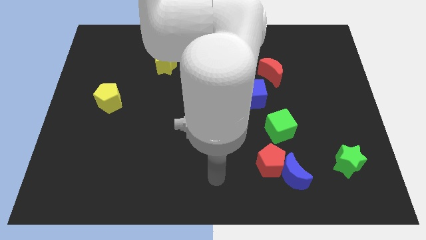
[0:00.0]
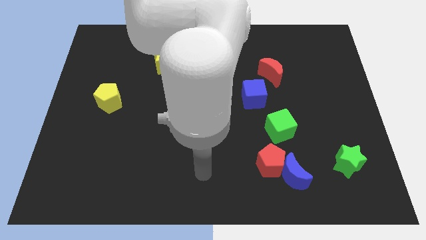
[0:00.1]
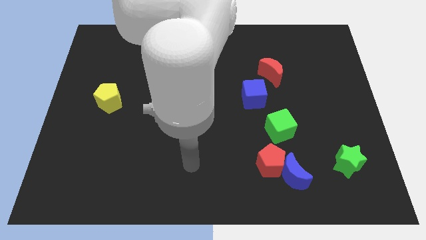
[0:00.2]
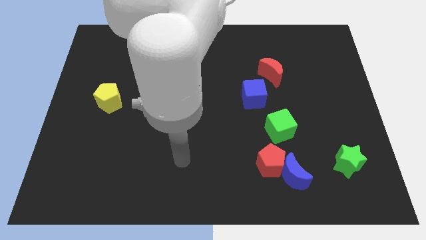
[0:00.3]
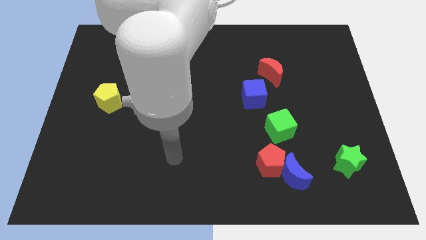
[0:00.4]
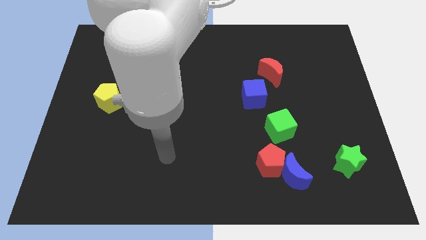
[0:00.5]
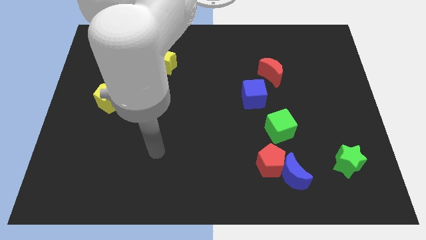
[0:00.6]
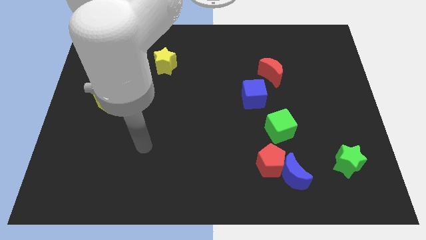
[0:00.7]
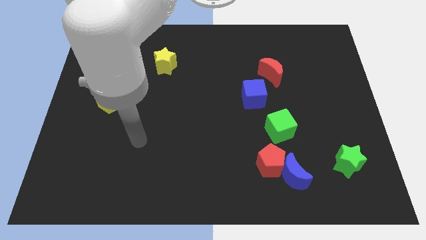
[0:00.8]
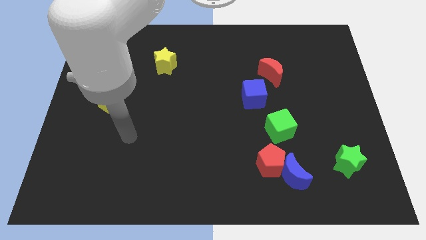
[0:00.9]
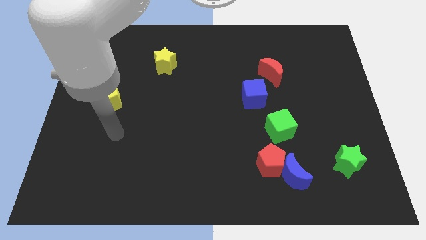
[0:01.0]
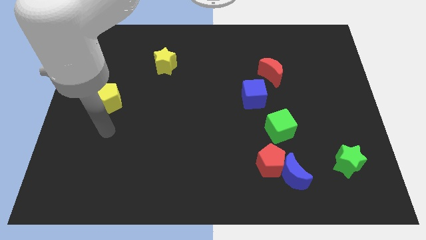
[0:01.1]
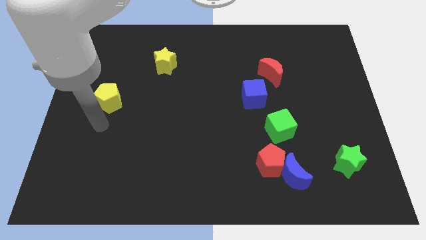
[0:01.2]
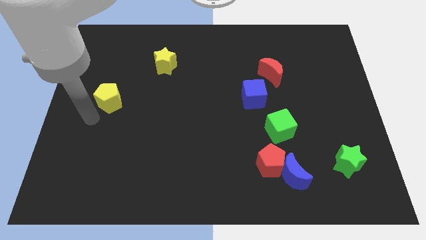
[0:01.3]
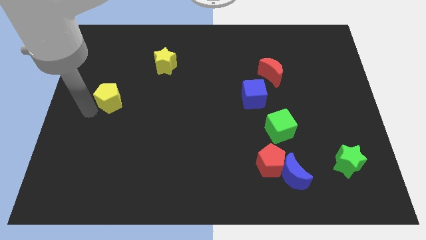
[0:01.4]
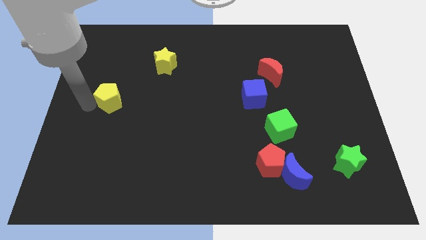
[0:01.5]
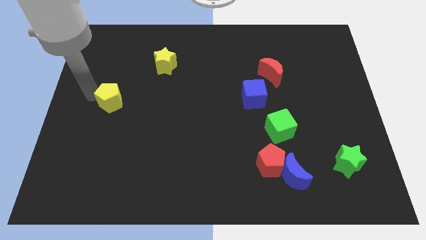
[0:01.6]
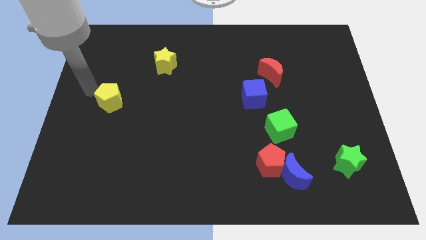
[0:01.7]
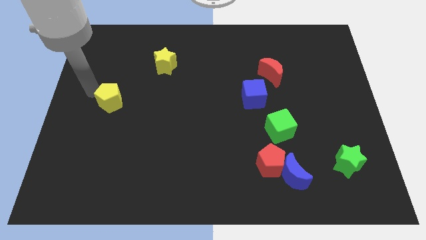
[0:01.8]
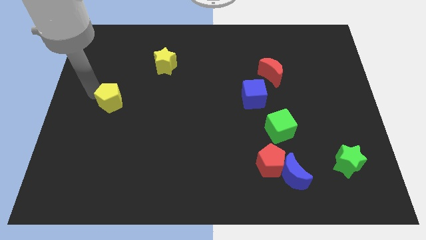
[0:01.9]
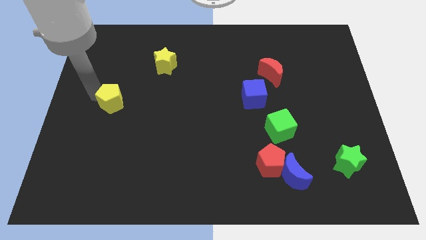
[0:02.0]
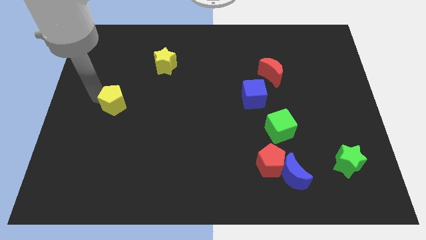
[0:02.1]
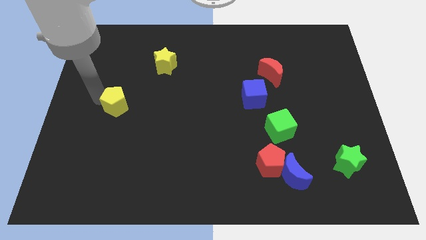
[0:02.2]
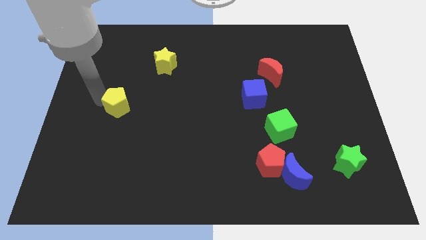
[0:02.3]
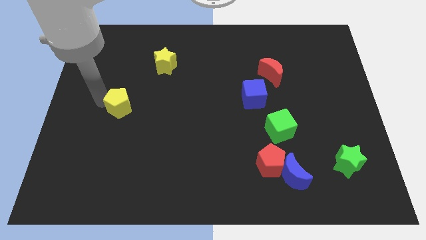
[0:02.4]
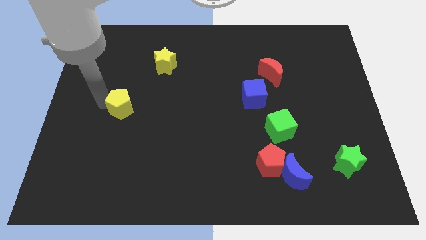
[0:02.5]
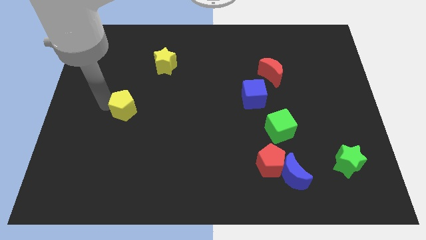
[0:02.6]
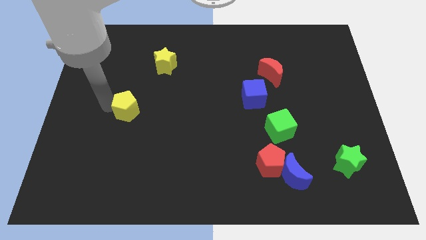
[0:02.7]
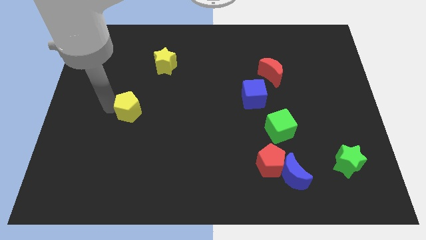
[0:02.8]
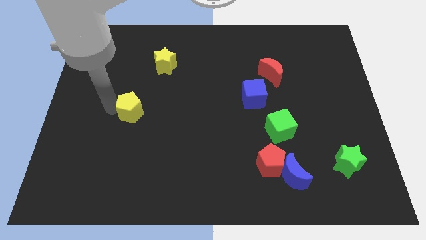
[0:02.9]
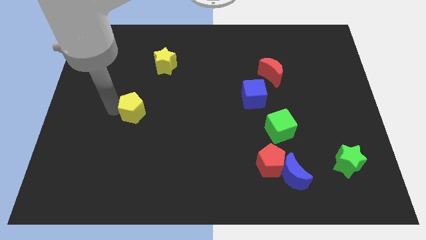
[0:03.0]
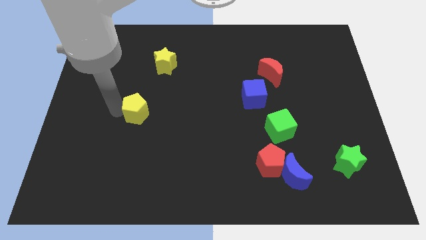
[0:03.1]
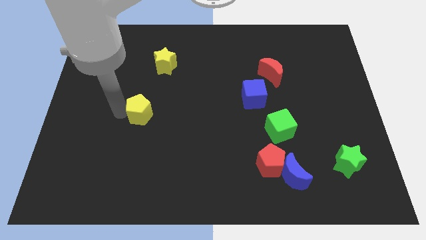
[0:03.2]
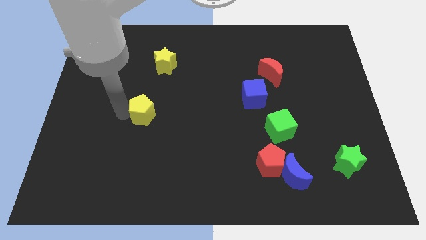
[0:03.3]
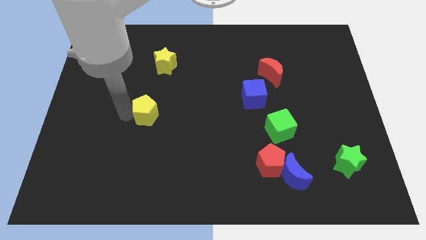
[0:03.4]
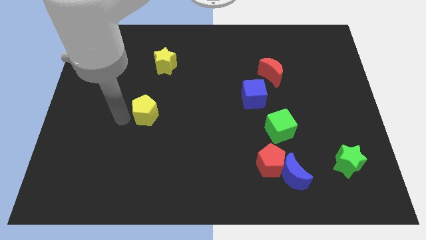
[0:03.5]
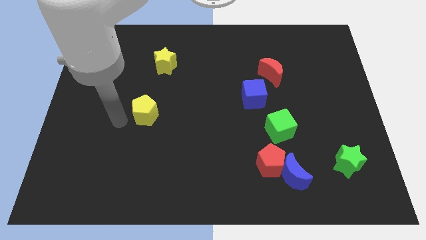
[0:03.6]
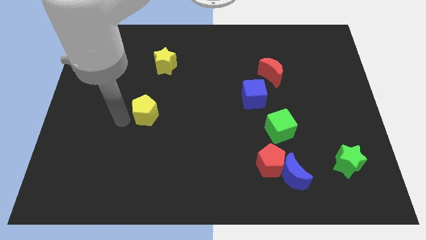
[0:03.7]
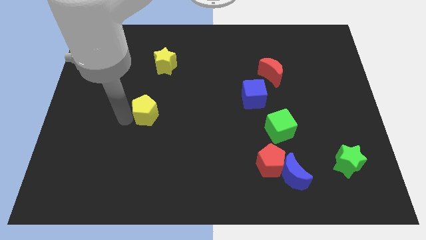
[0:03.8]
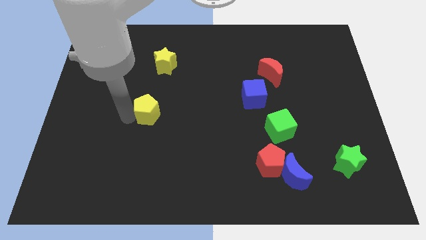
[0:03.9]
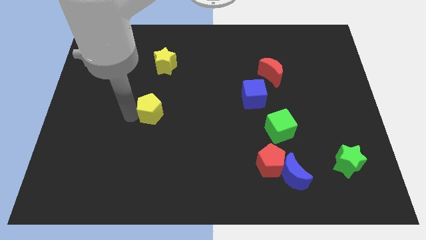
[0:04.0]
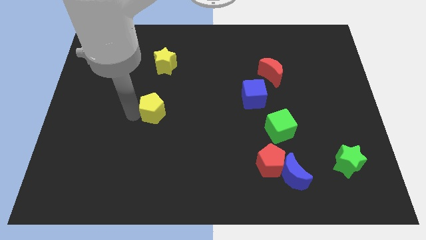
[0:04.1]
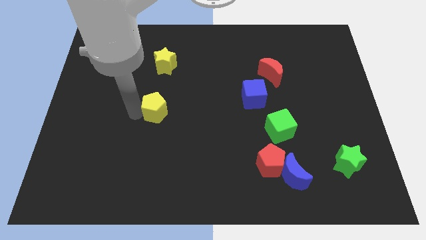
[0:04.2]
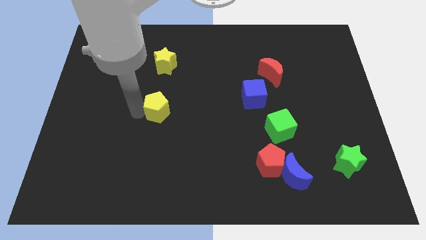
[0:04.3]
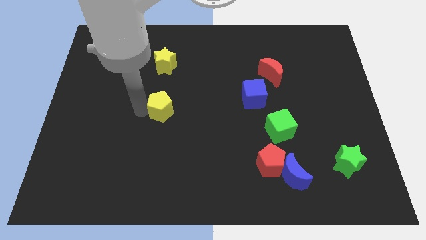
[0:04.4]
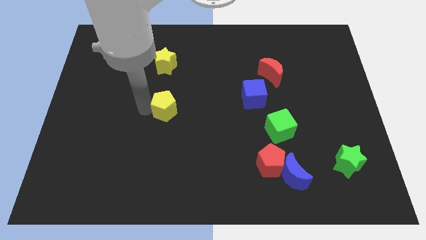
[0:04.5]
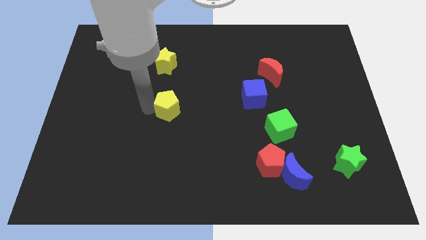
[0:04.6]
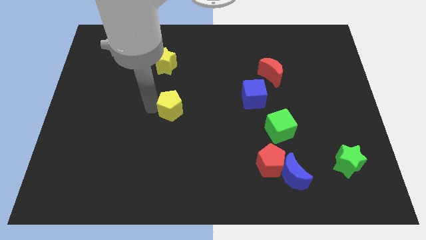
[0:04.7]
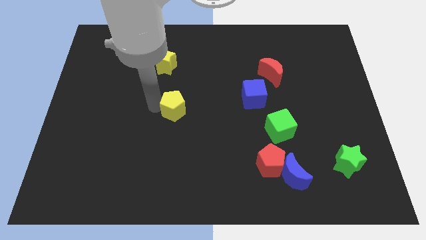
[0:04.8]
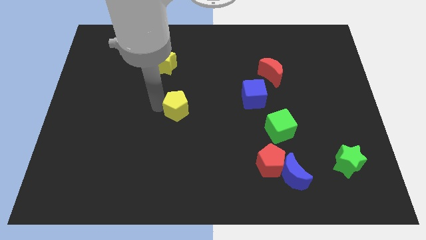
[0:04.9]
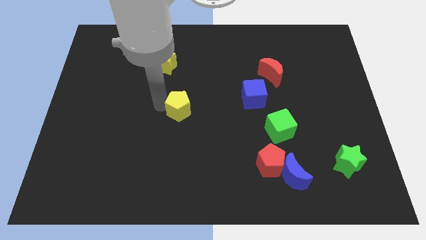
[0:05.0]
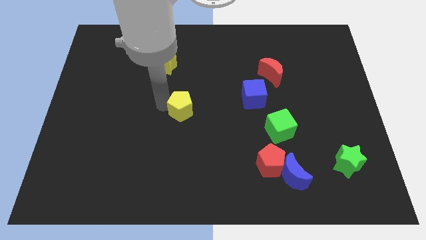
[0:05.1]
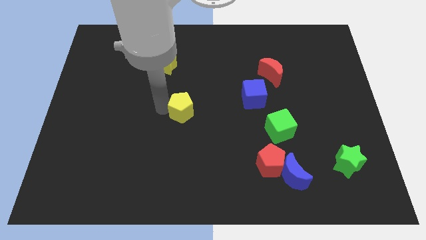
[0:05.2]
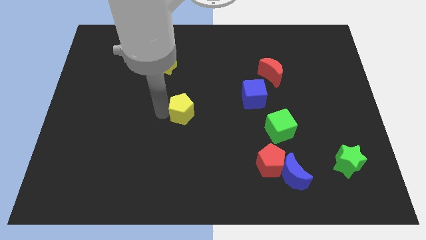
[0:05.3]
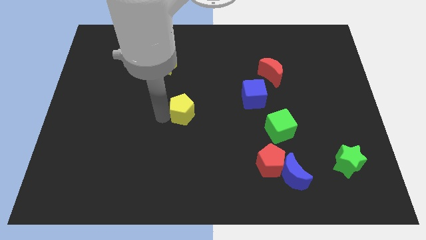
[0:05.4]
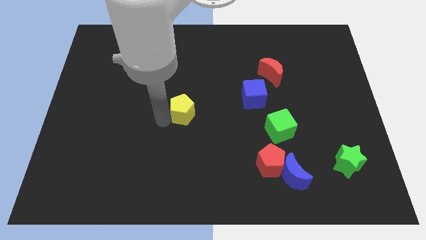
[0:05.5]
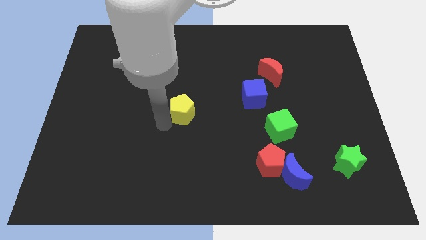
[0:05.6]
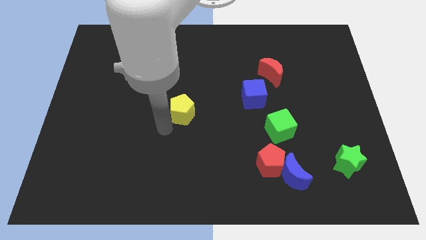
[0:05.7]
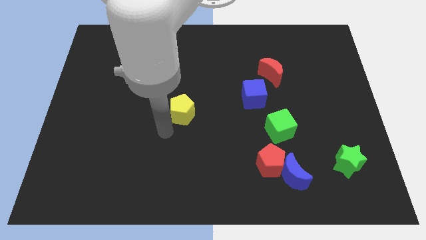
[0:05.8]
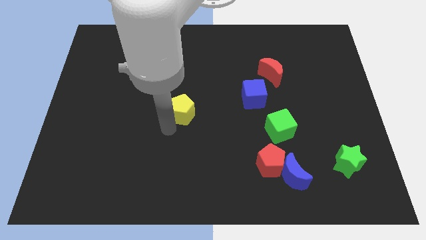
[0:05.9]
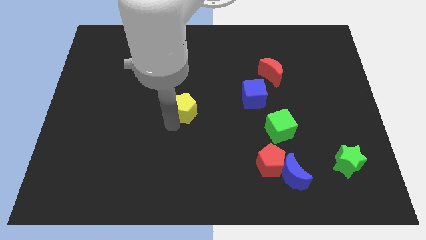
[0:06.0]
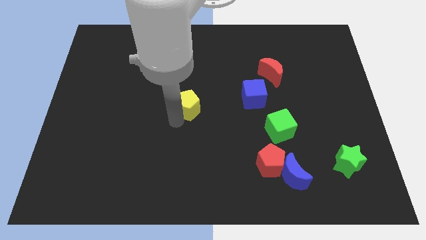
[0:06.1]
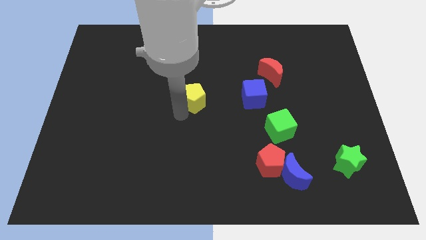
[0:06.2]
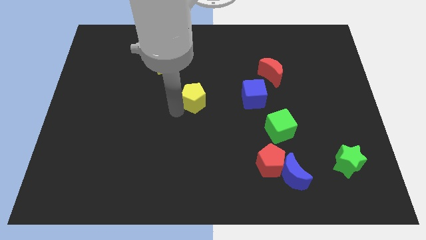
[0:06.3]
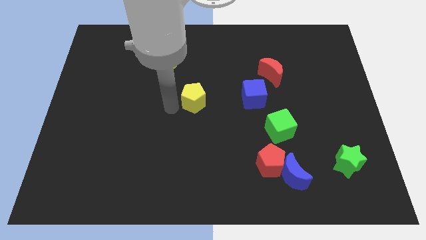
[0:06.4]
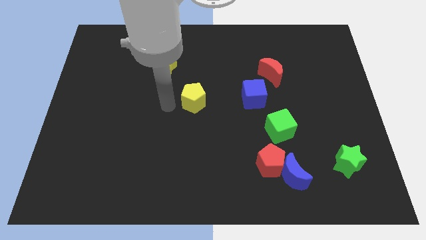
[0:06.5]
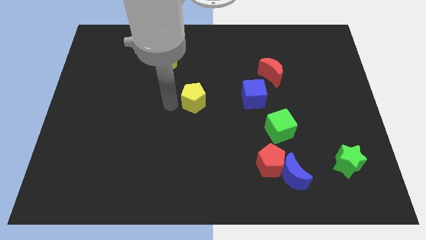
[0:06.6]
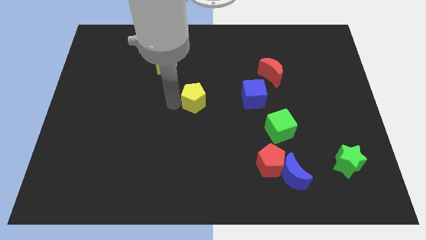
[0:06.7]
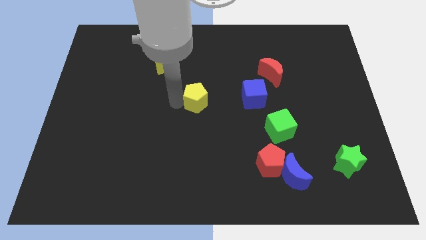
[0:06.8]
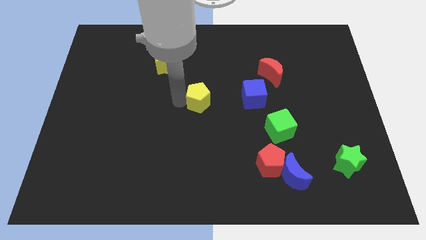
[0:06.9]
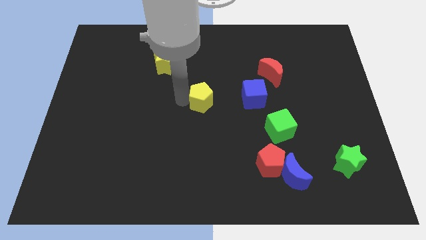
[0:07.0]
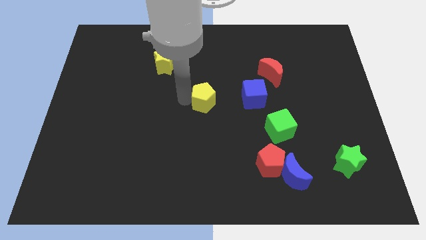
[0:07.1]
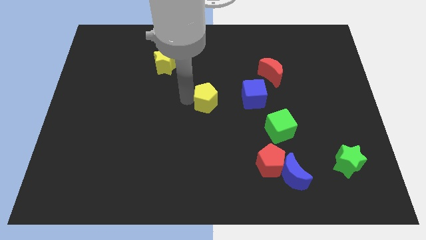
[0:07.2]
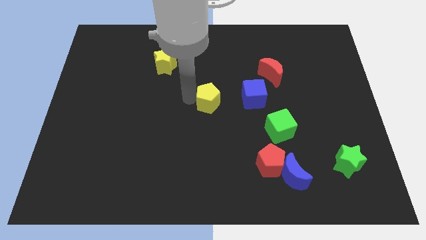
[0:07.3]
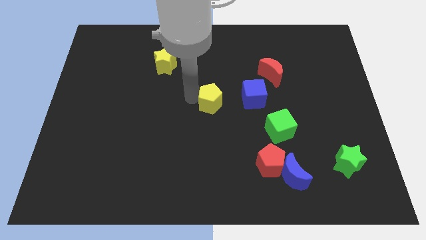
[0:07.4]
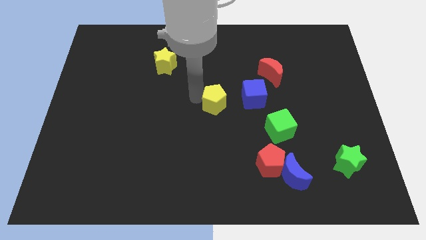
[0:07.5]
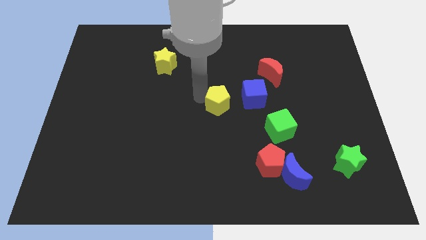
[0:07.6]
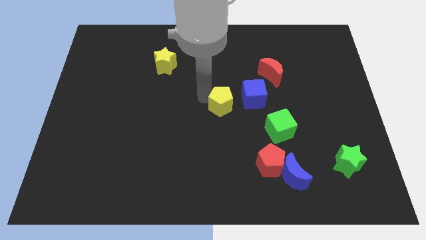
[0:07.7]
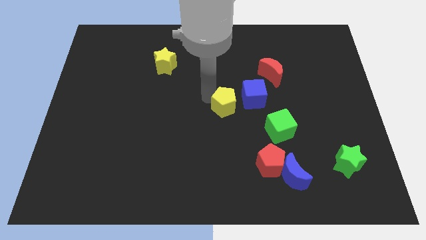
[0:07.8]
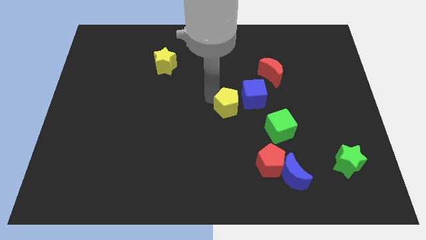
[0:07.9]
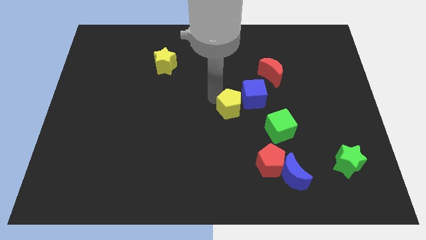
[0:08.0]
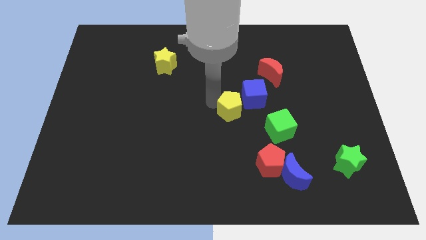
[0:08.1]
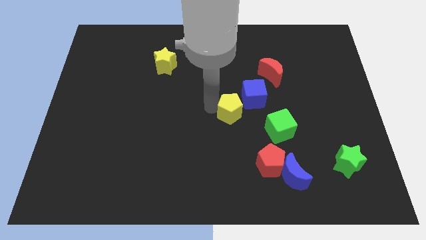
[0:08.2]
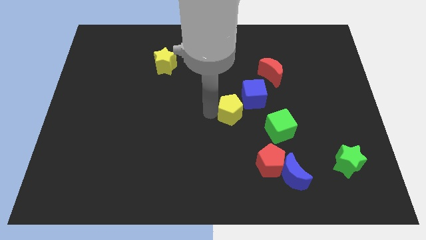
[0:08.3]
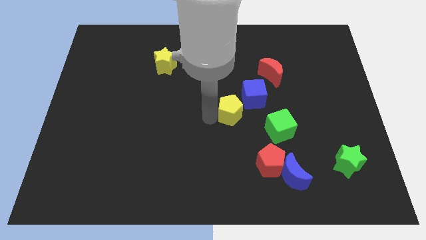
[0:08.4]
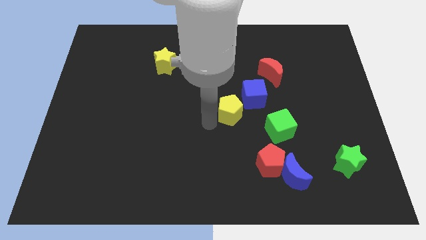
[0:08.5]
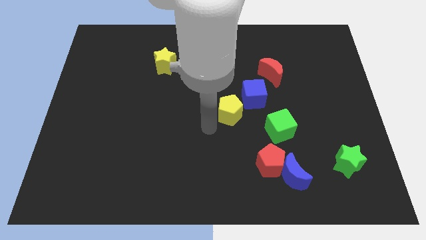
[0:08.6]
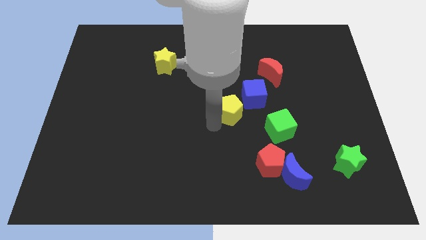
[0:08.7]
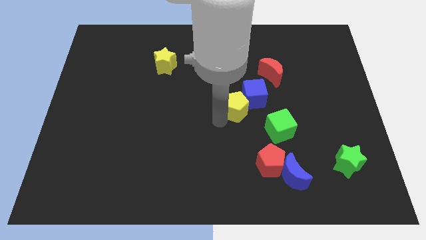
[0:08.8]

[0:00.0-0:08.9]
slide the yellow pentagon next to the blue cube
